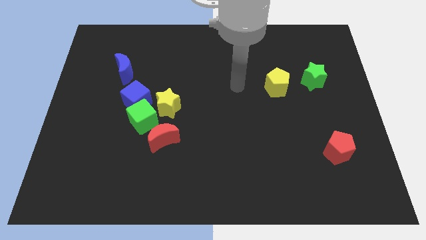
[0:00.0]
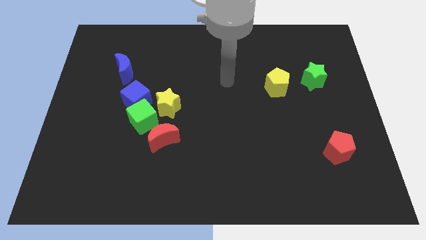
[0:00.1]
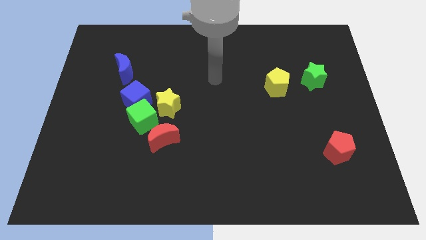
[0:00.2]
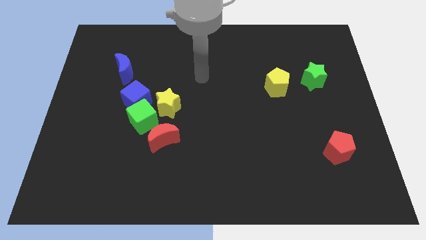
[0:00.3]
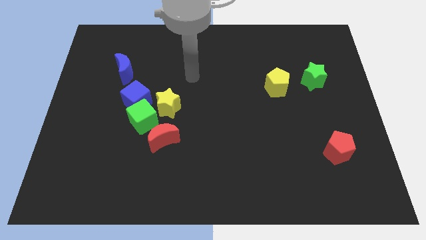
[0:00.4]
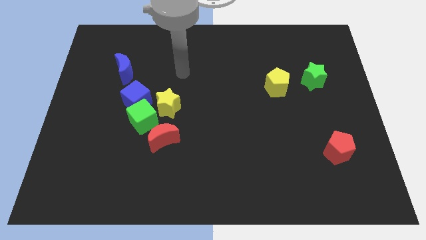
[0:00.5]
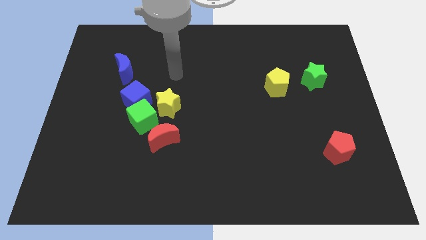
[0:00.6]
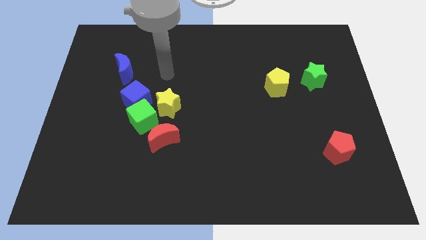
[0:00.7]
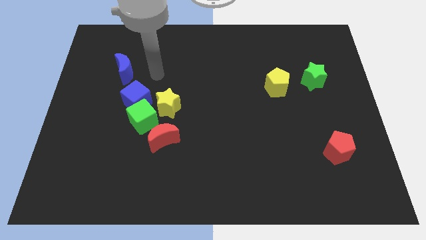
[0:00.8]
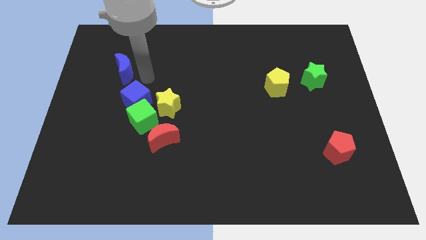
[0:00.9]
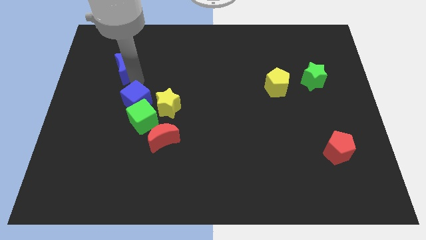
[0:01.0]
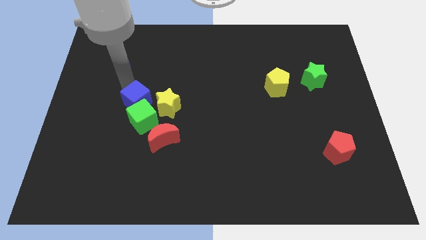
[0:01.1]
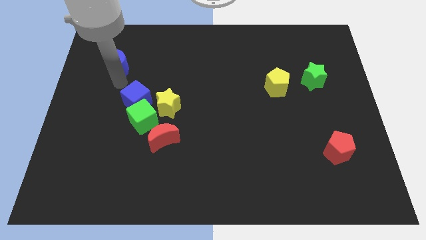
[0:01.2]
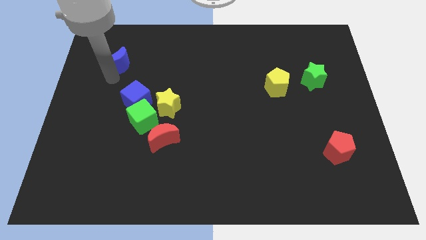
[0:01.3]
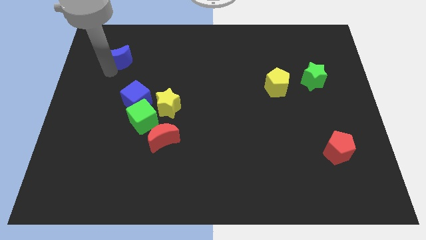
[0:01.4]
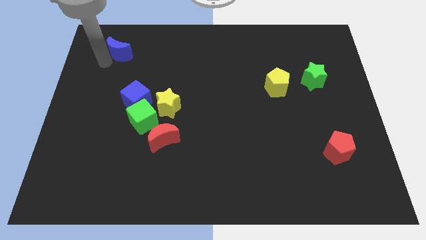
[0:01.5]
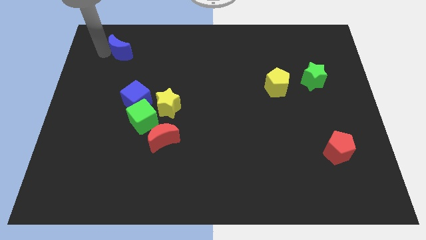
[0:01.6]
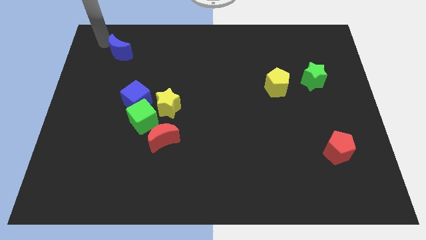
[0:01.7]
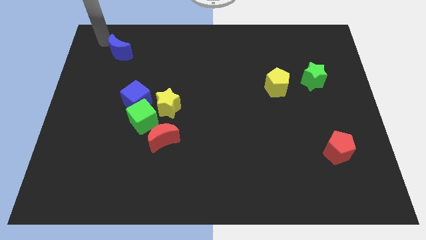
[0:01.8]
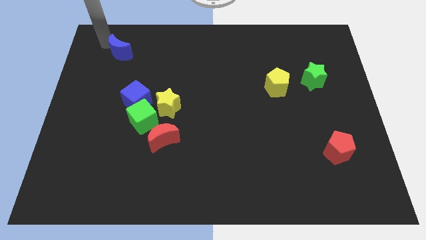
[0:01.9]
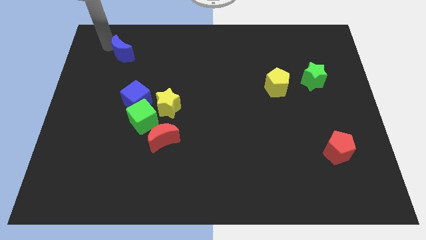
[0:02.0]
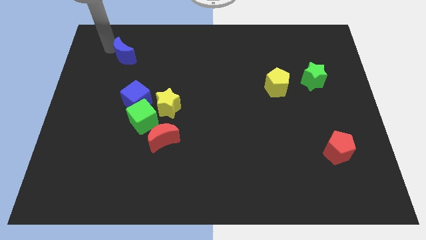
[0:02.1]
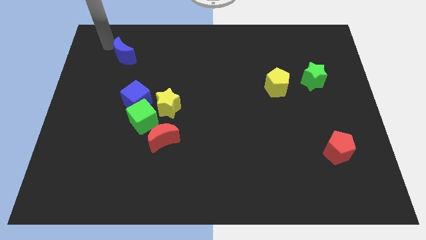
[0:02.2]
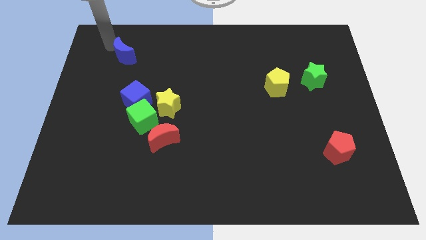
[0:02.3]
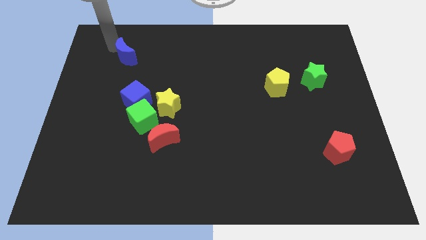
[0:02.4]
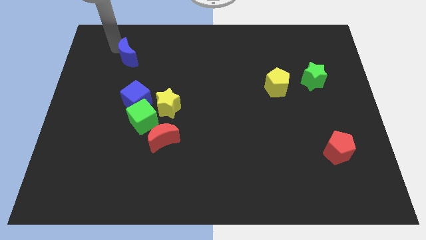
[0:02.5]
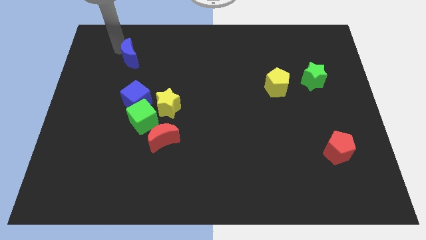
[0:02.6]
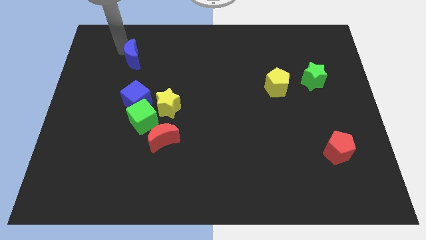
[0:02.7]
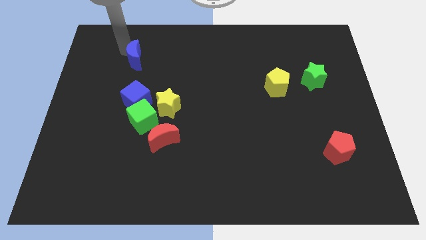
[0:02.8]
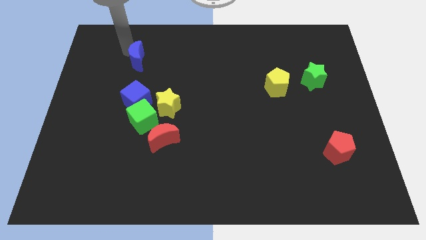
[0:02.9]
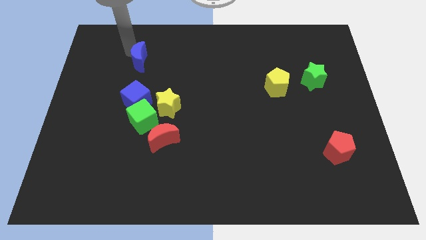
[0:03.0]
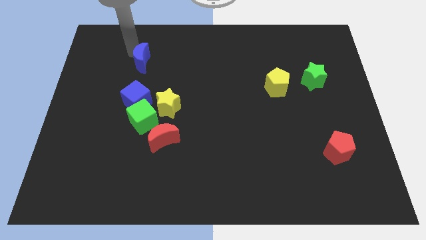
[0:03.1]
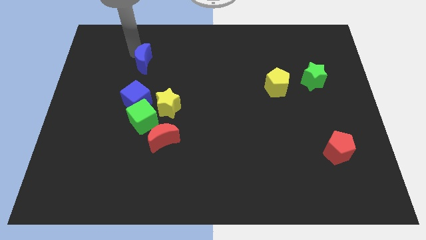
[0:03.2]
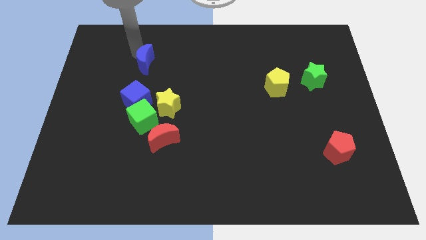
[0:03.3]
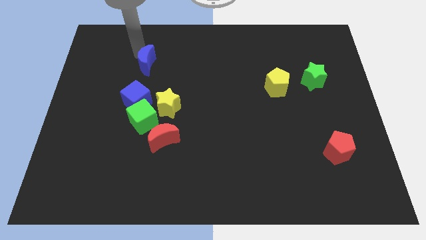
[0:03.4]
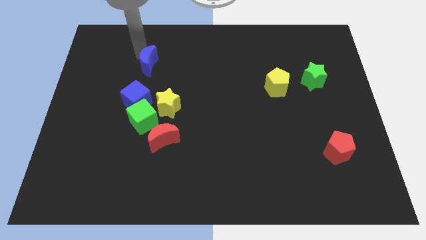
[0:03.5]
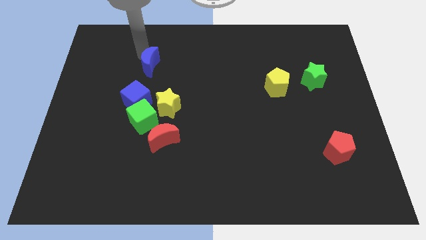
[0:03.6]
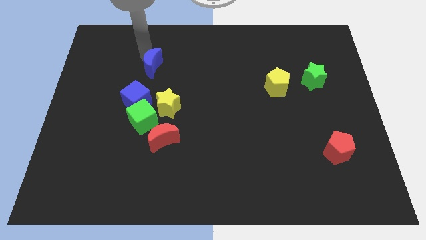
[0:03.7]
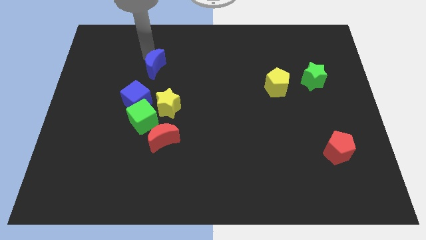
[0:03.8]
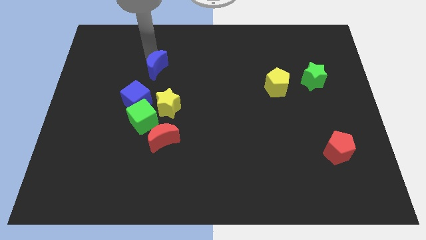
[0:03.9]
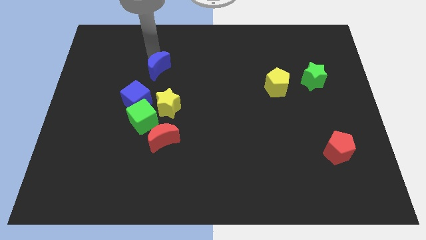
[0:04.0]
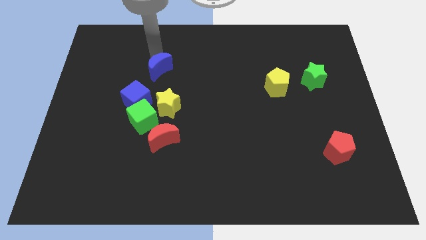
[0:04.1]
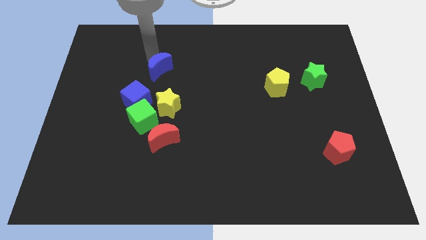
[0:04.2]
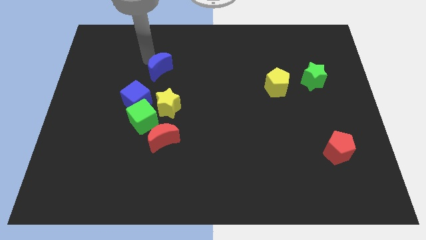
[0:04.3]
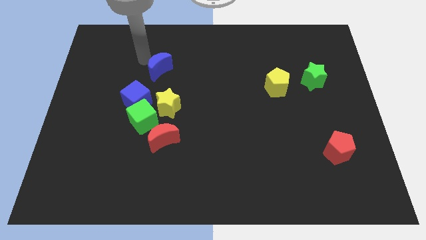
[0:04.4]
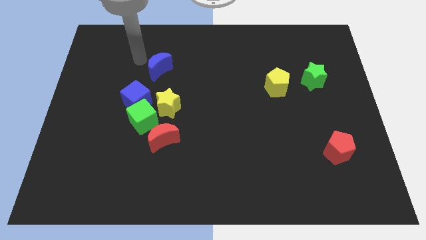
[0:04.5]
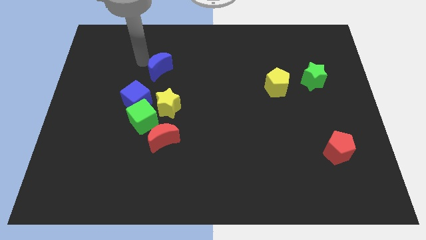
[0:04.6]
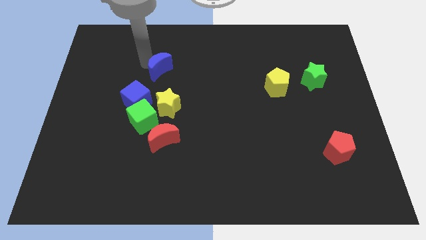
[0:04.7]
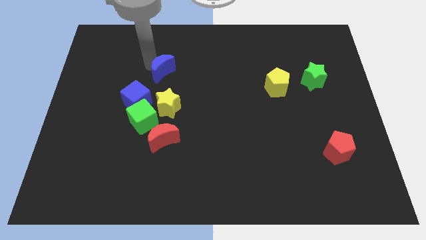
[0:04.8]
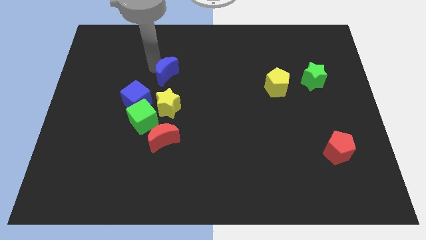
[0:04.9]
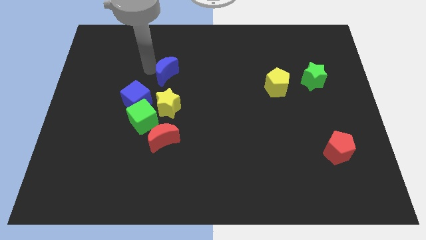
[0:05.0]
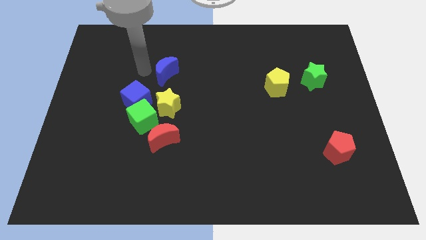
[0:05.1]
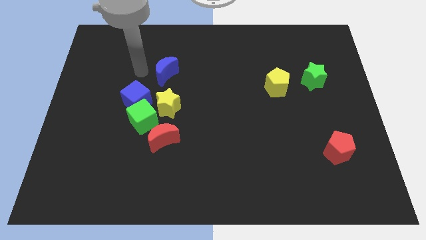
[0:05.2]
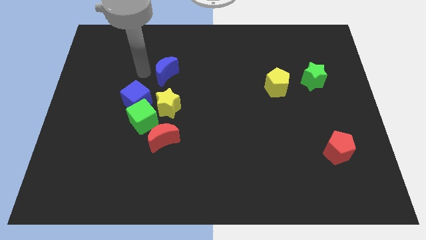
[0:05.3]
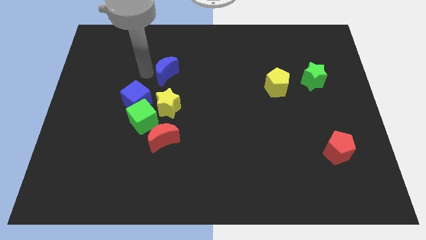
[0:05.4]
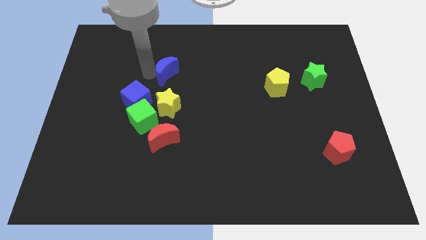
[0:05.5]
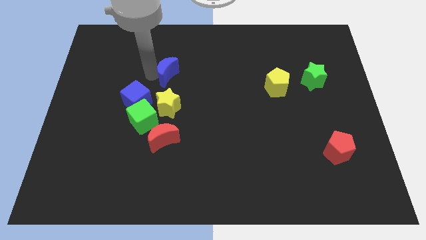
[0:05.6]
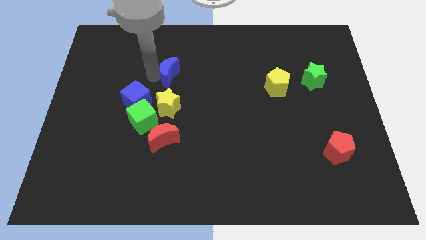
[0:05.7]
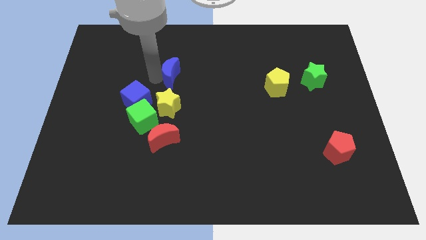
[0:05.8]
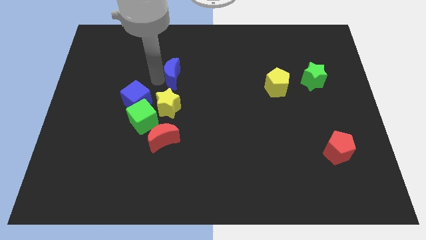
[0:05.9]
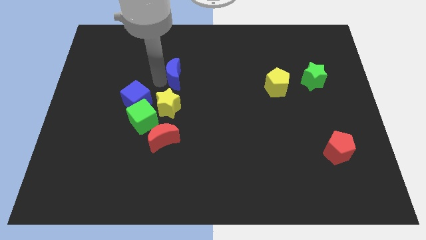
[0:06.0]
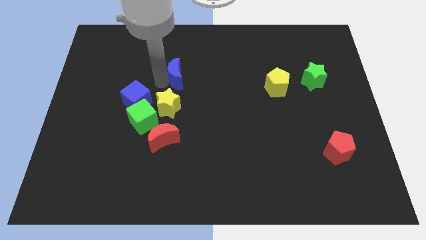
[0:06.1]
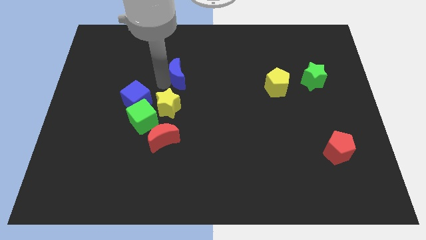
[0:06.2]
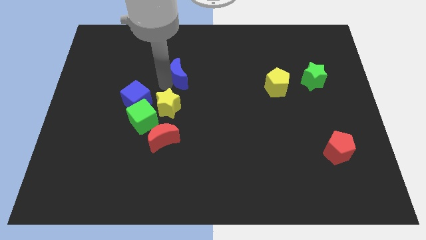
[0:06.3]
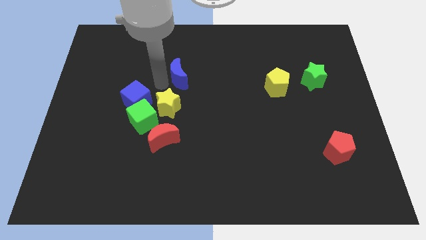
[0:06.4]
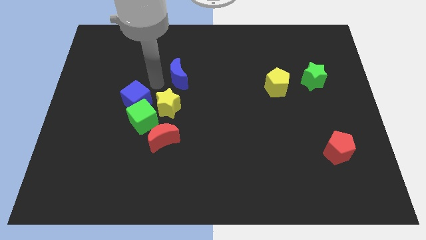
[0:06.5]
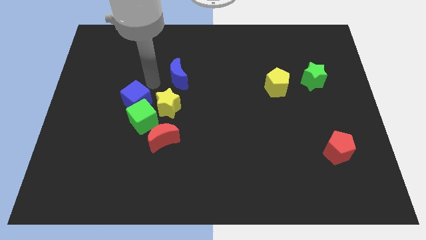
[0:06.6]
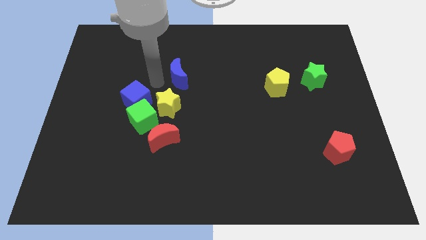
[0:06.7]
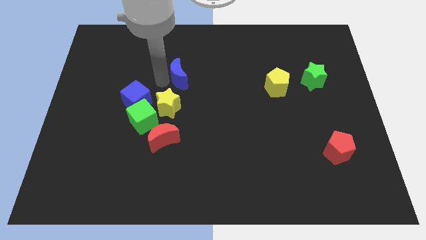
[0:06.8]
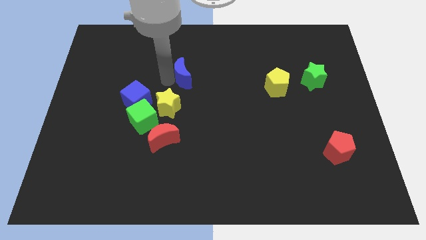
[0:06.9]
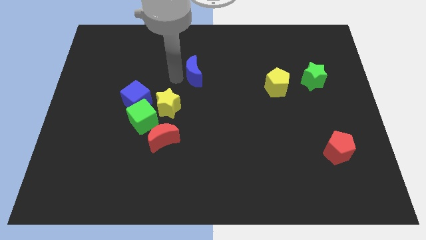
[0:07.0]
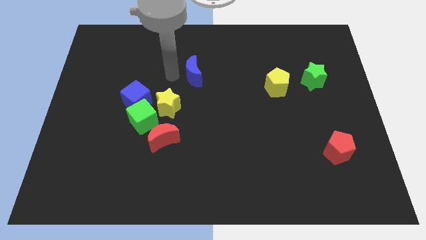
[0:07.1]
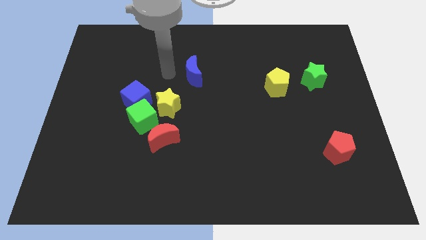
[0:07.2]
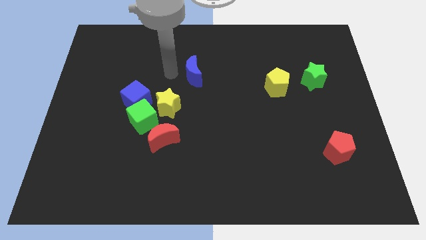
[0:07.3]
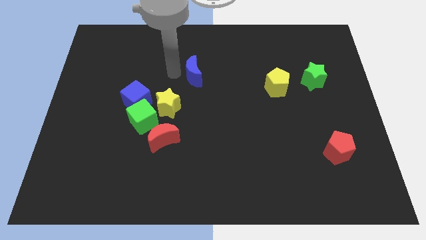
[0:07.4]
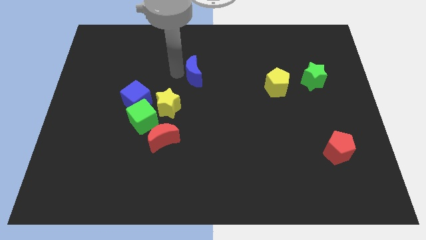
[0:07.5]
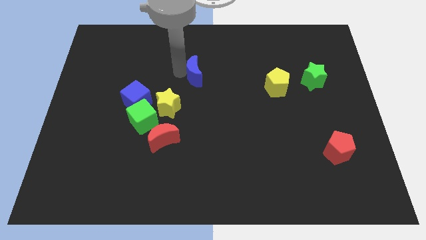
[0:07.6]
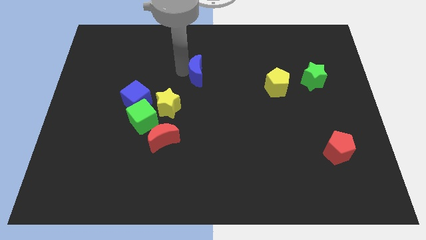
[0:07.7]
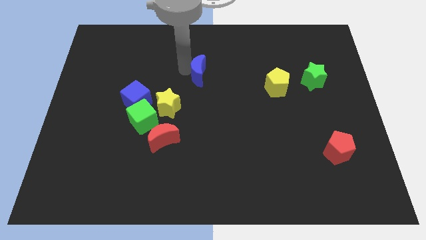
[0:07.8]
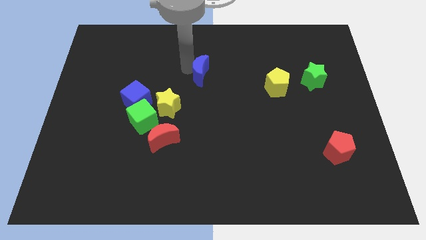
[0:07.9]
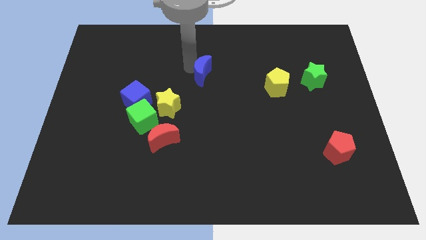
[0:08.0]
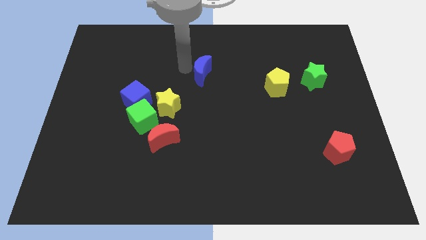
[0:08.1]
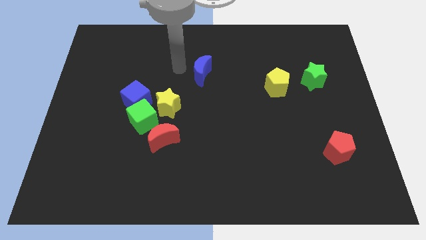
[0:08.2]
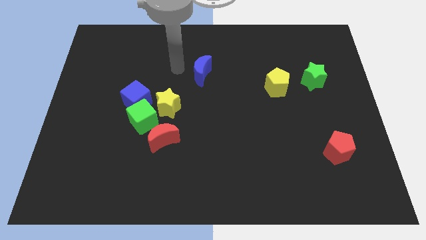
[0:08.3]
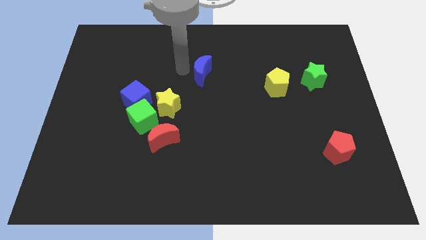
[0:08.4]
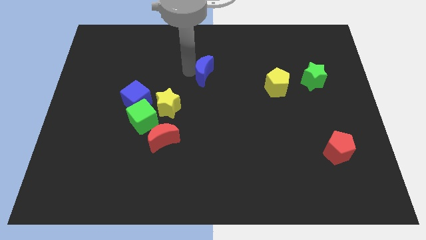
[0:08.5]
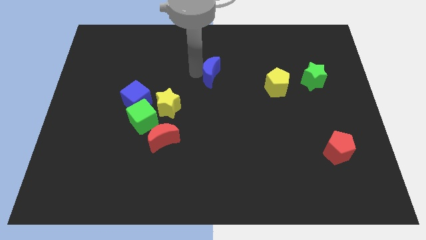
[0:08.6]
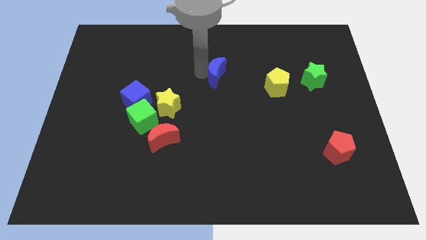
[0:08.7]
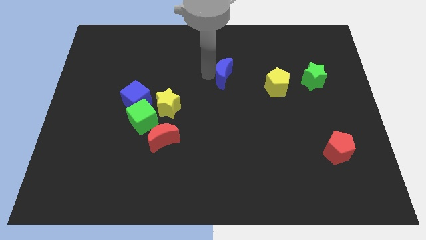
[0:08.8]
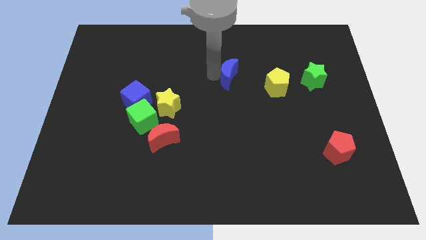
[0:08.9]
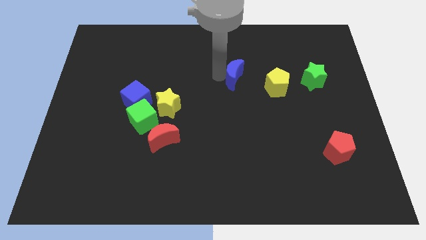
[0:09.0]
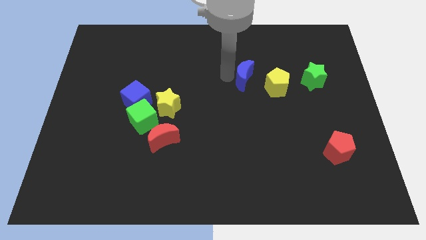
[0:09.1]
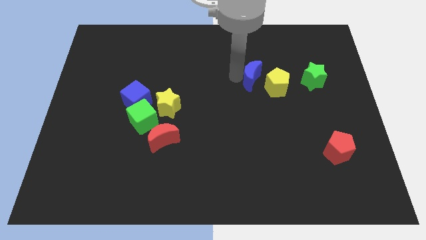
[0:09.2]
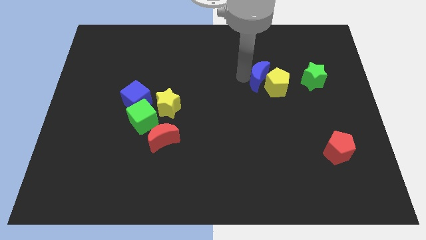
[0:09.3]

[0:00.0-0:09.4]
push the blue moon towards the yellow pentagon
